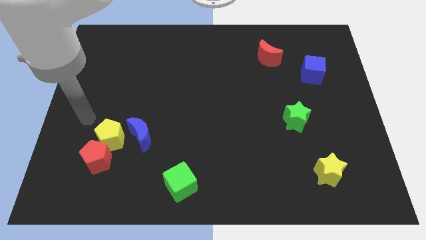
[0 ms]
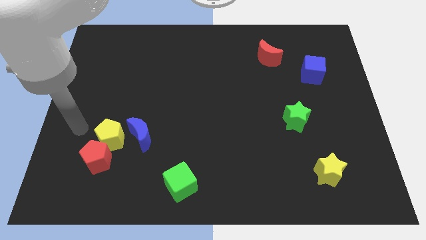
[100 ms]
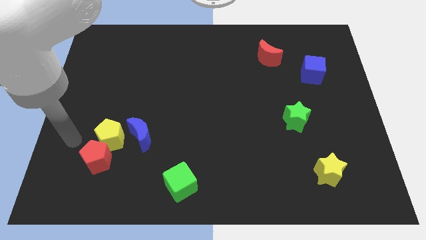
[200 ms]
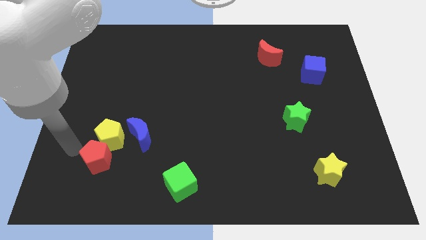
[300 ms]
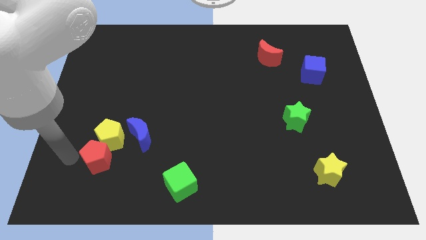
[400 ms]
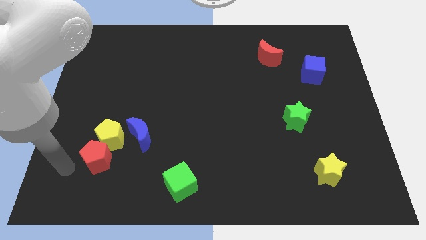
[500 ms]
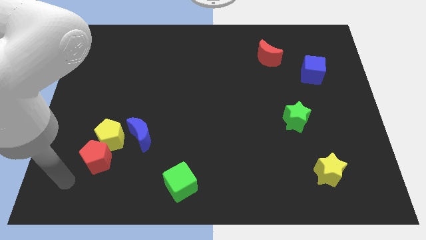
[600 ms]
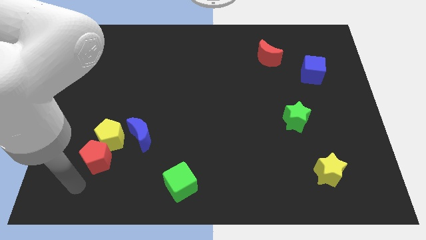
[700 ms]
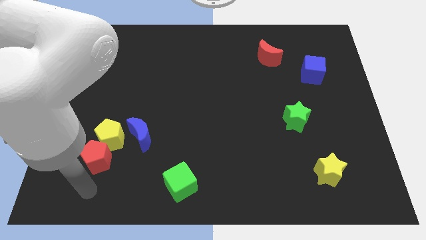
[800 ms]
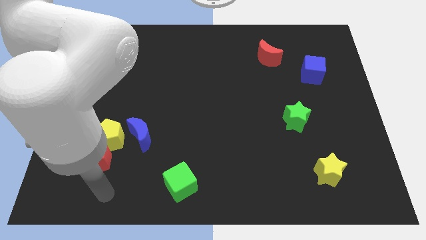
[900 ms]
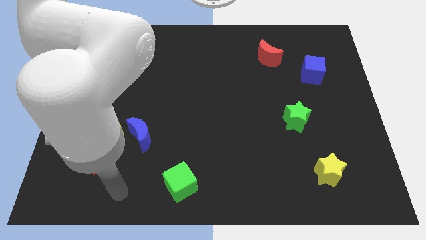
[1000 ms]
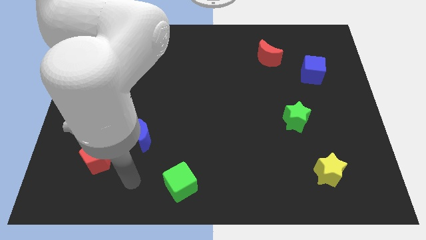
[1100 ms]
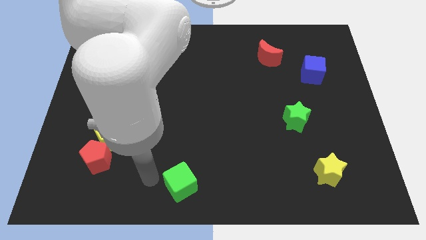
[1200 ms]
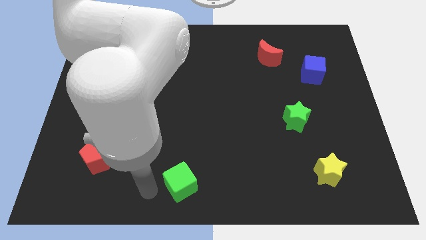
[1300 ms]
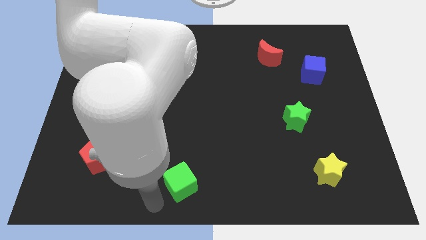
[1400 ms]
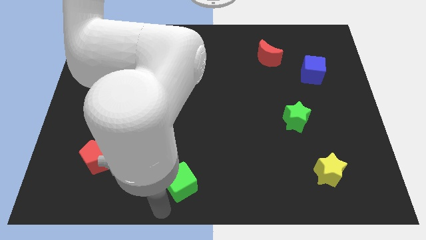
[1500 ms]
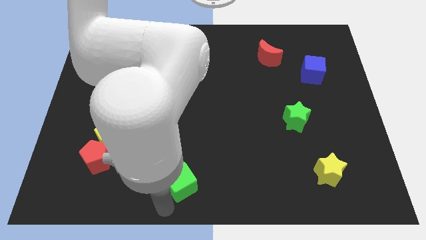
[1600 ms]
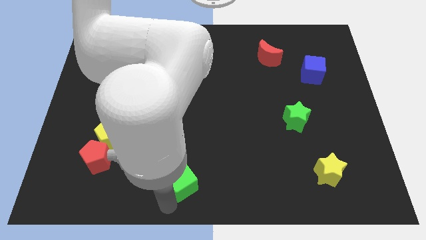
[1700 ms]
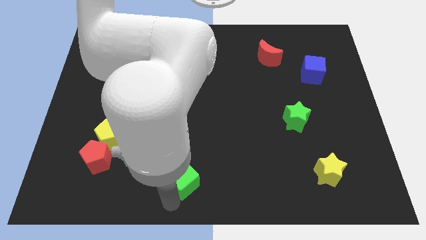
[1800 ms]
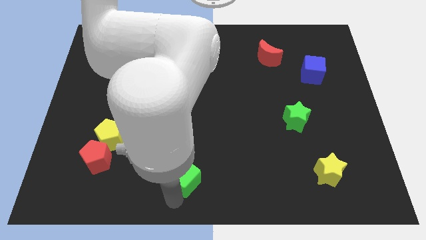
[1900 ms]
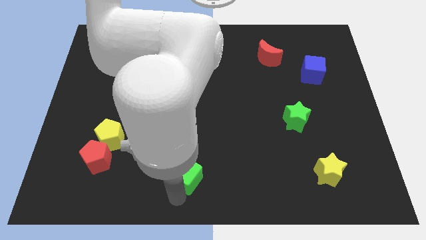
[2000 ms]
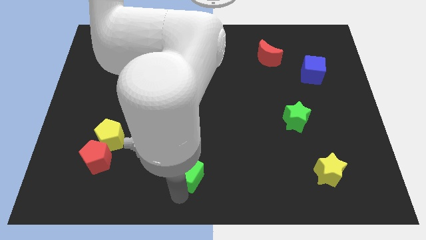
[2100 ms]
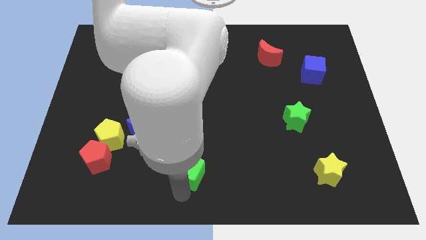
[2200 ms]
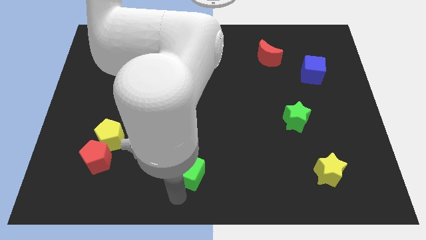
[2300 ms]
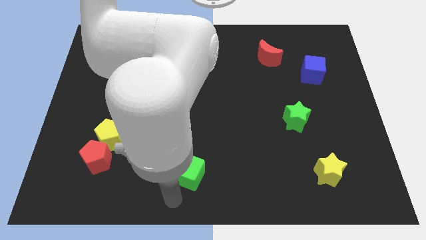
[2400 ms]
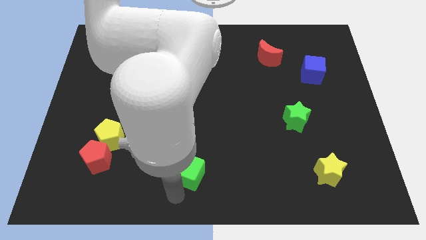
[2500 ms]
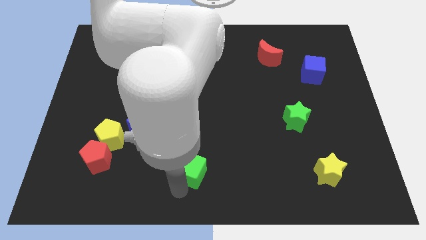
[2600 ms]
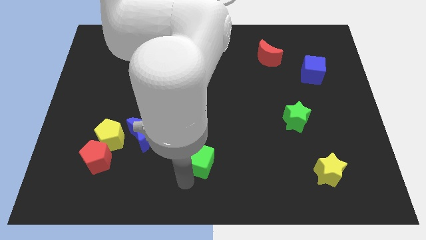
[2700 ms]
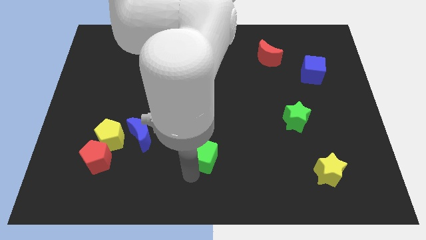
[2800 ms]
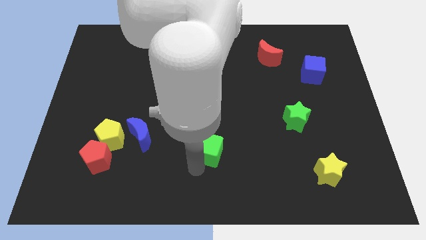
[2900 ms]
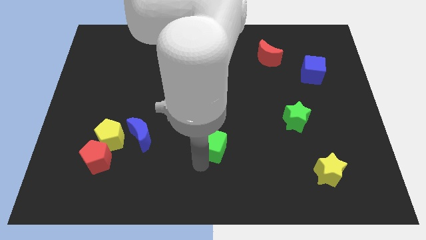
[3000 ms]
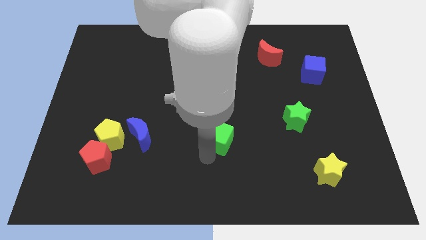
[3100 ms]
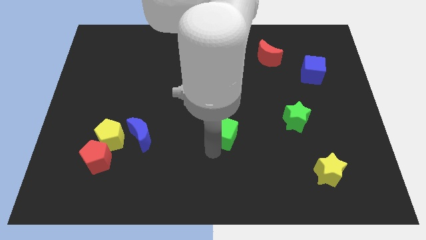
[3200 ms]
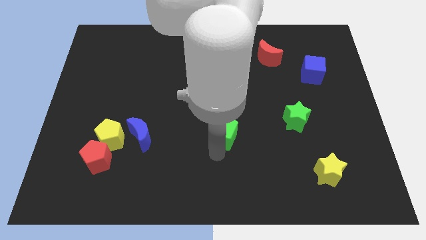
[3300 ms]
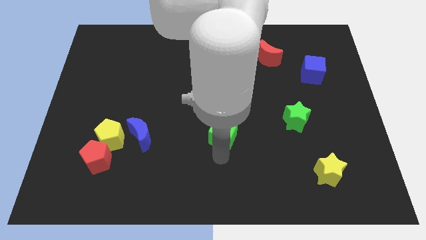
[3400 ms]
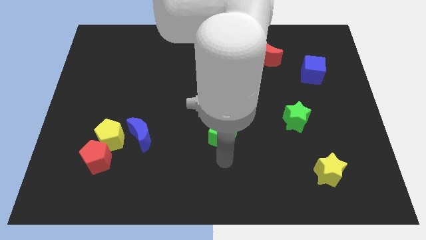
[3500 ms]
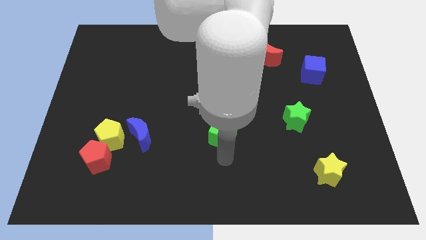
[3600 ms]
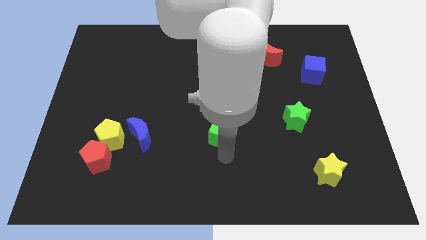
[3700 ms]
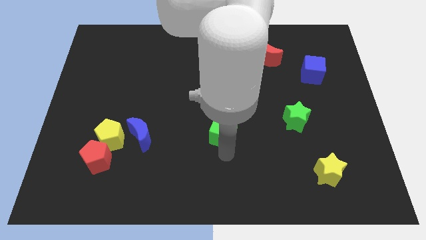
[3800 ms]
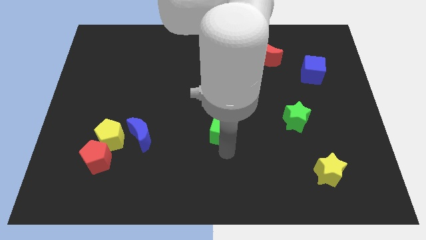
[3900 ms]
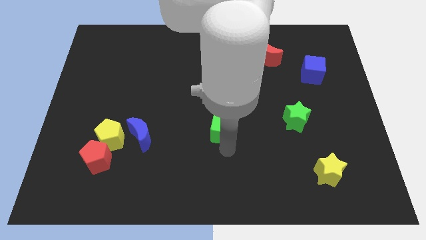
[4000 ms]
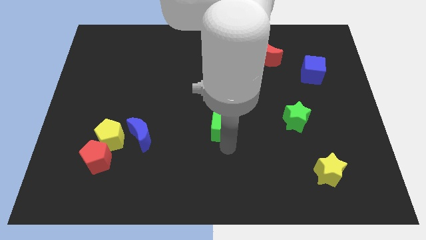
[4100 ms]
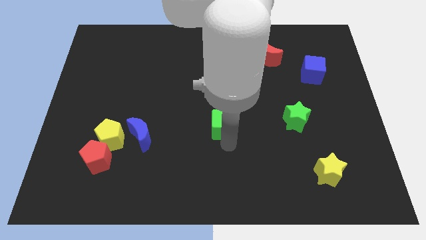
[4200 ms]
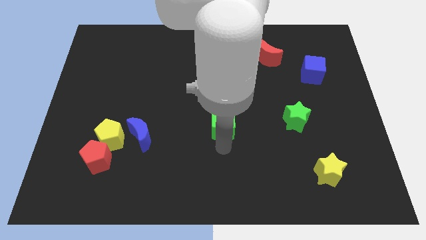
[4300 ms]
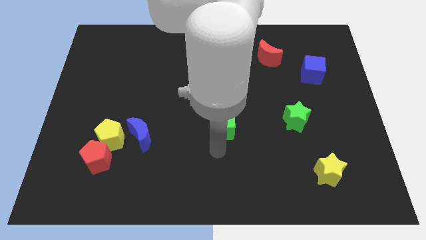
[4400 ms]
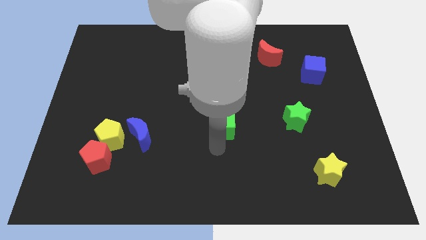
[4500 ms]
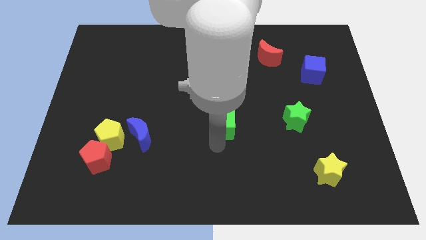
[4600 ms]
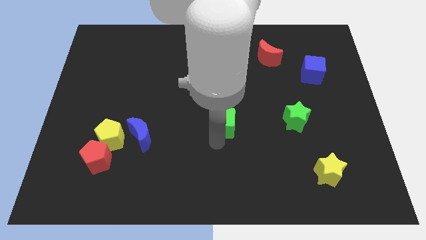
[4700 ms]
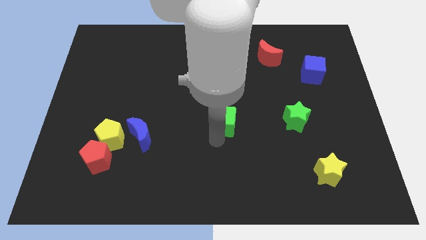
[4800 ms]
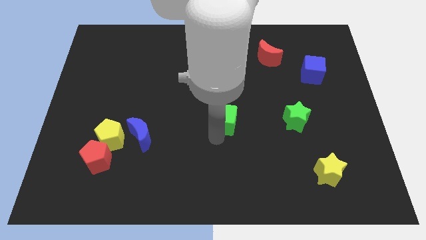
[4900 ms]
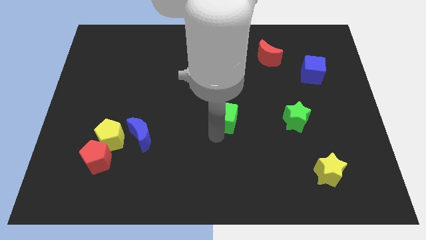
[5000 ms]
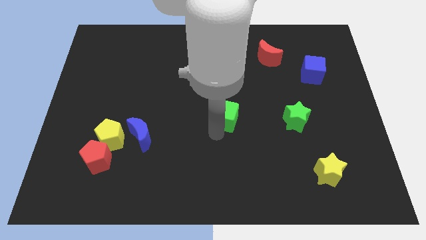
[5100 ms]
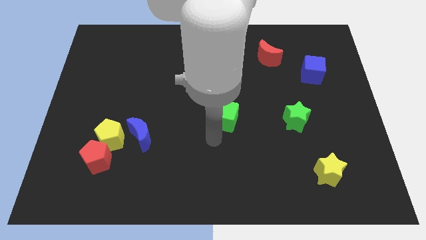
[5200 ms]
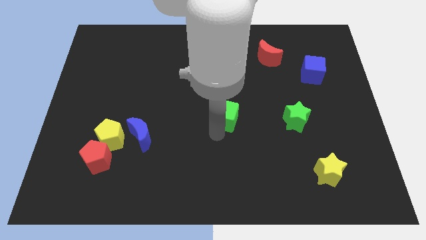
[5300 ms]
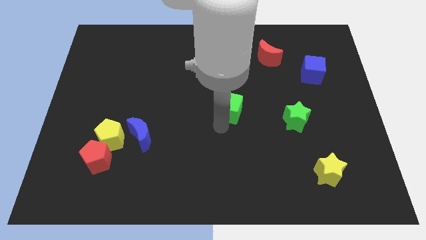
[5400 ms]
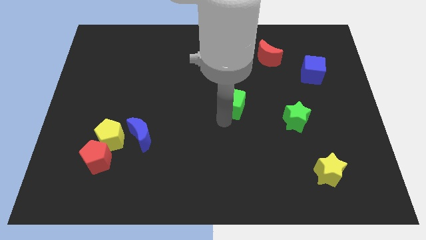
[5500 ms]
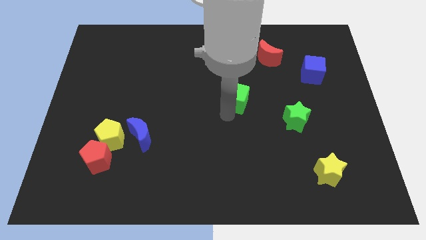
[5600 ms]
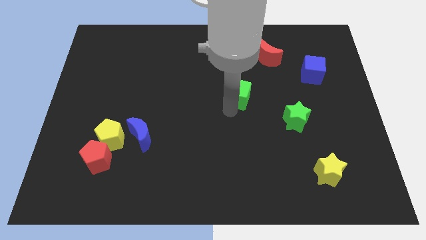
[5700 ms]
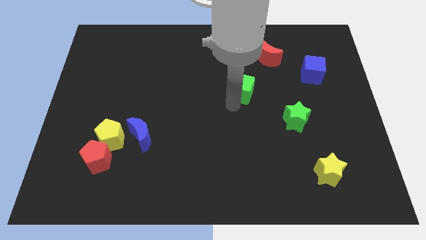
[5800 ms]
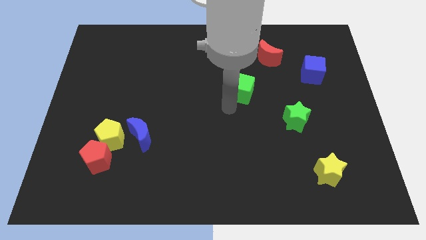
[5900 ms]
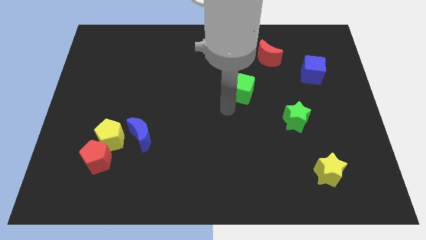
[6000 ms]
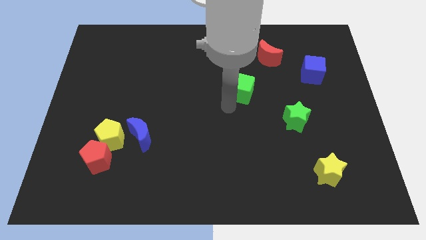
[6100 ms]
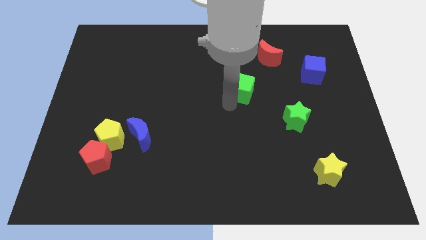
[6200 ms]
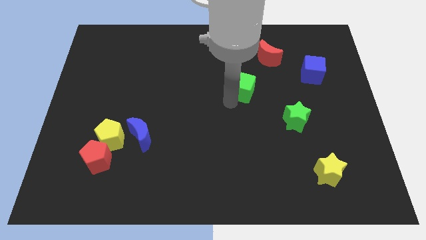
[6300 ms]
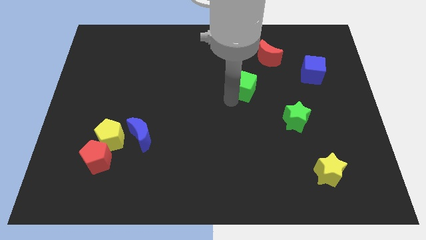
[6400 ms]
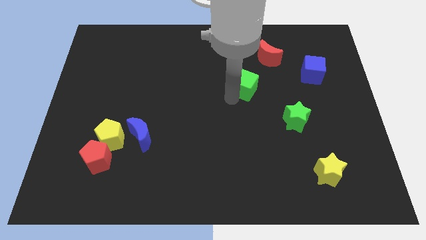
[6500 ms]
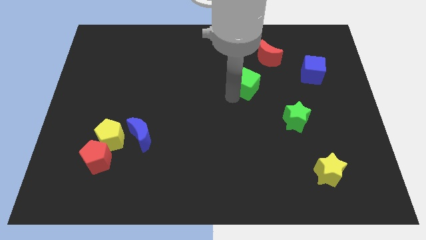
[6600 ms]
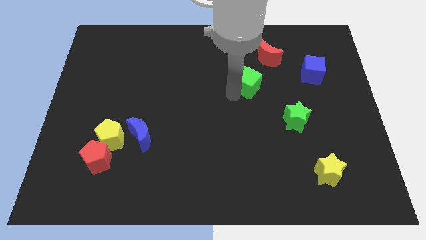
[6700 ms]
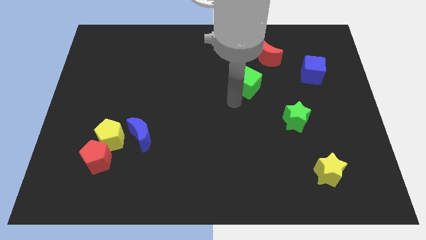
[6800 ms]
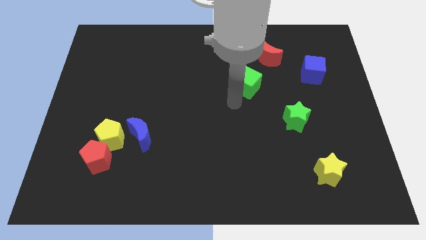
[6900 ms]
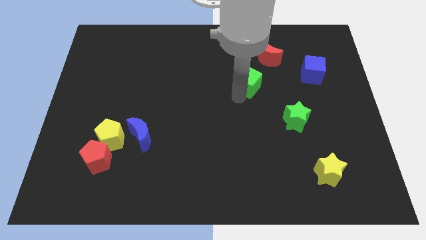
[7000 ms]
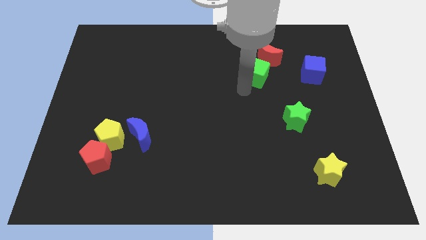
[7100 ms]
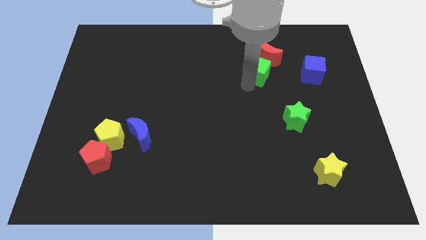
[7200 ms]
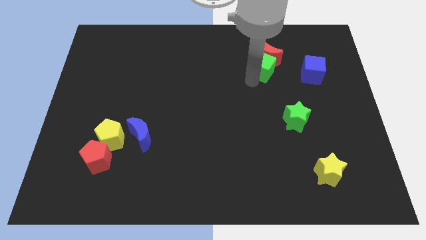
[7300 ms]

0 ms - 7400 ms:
put the green cube to the red moon

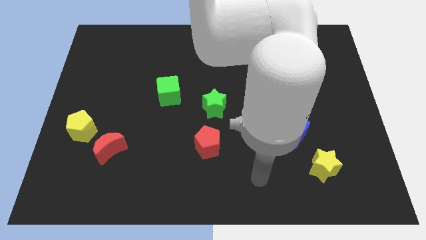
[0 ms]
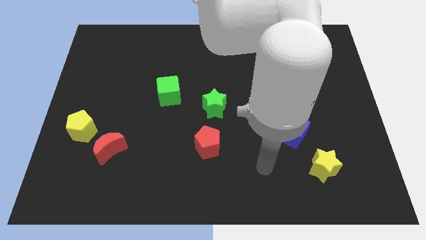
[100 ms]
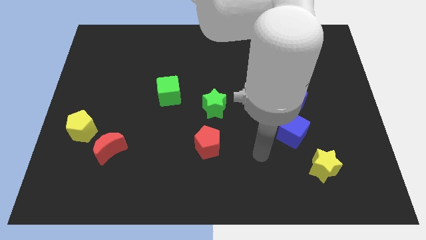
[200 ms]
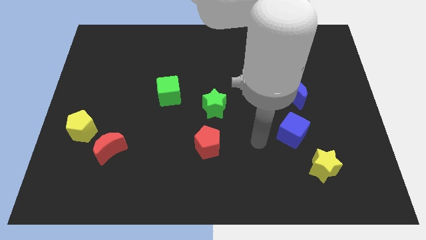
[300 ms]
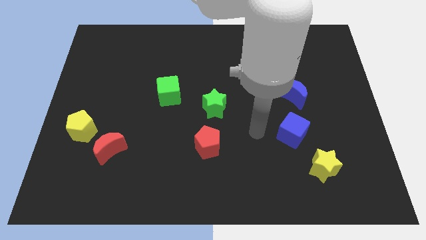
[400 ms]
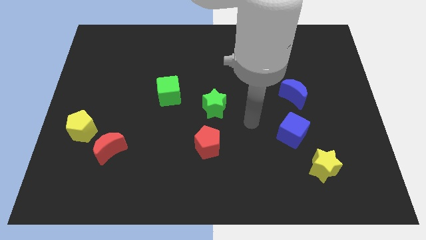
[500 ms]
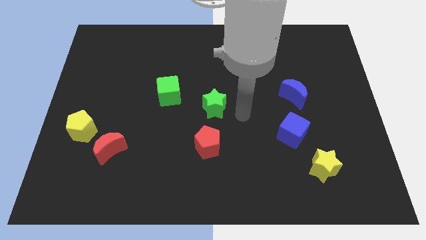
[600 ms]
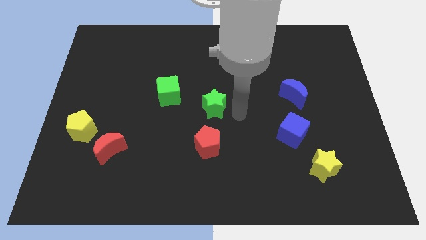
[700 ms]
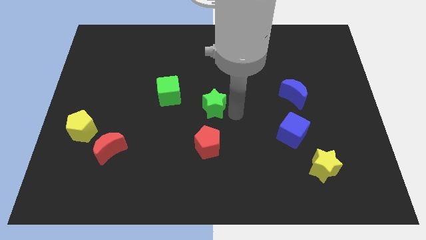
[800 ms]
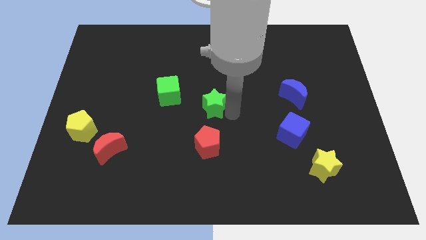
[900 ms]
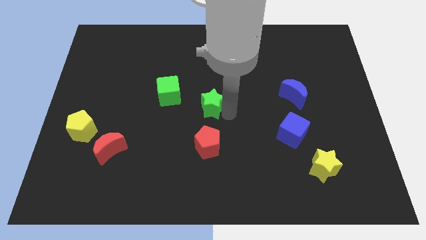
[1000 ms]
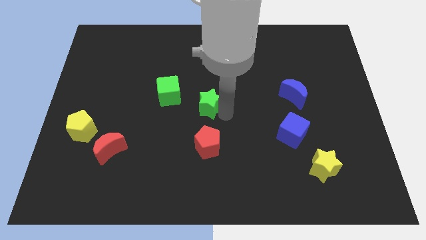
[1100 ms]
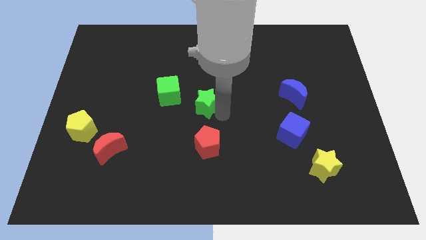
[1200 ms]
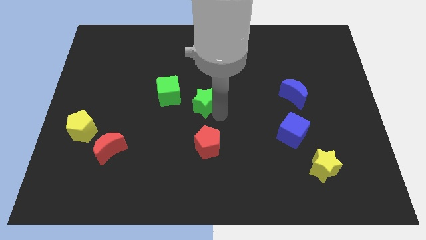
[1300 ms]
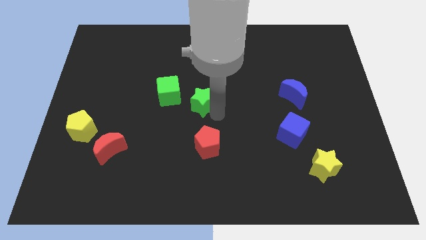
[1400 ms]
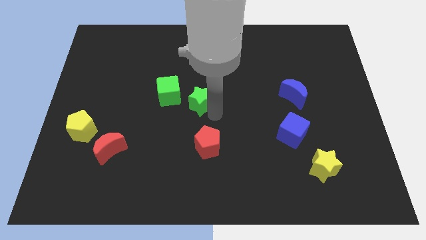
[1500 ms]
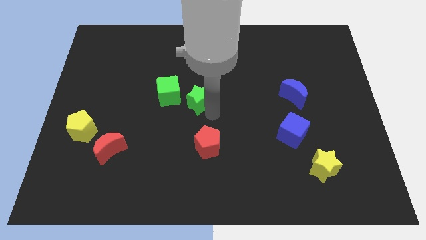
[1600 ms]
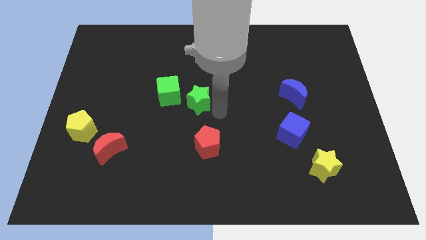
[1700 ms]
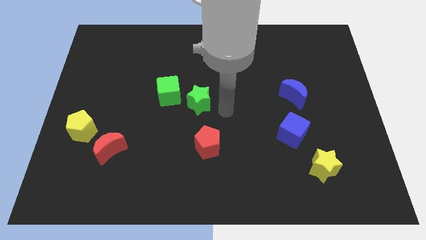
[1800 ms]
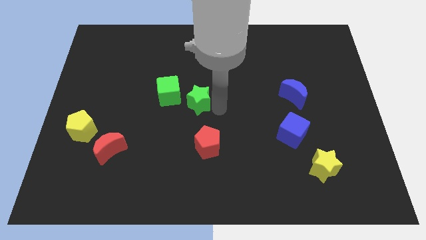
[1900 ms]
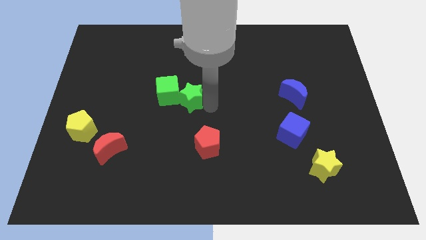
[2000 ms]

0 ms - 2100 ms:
put the green star next to the green cube
